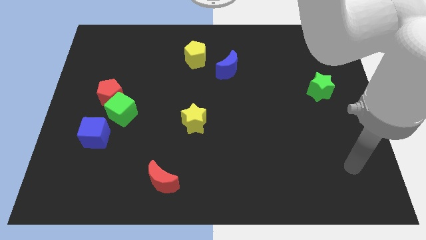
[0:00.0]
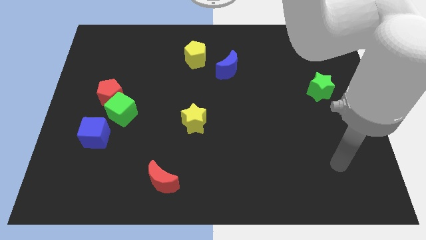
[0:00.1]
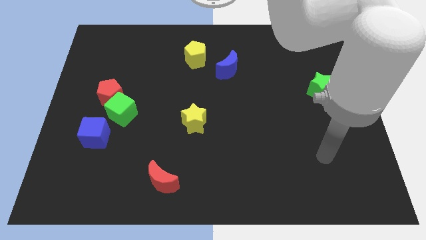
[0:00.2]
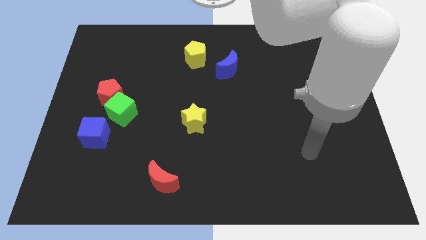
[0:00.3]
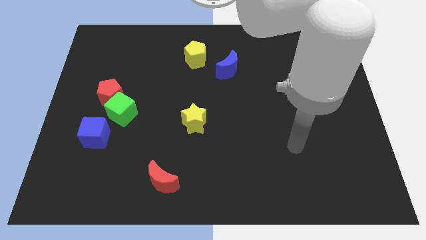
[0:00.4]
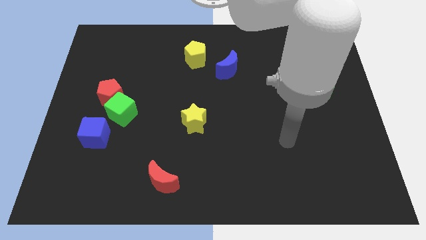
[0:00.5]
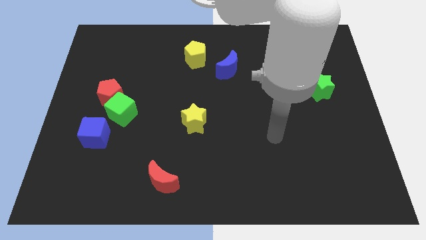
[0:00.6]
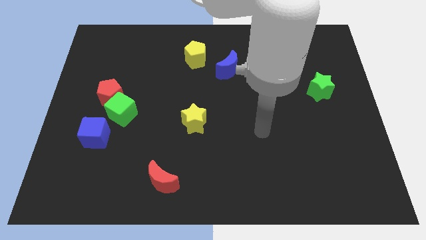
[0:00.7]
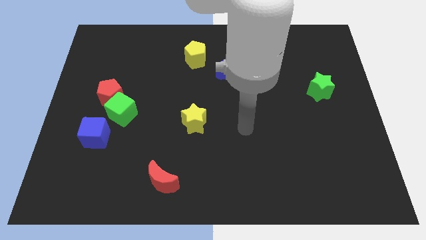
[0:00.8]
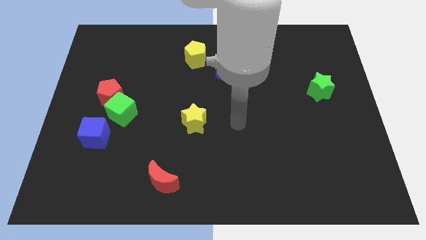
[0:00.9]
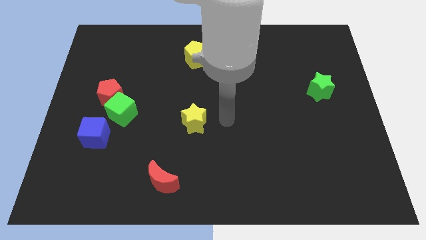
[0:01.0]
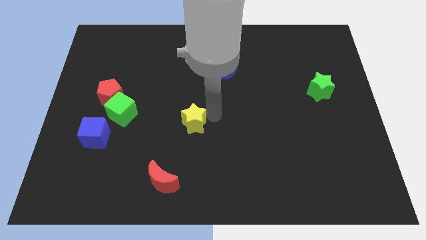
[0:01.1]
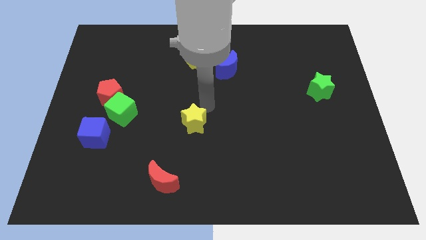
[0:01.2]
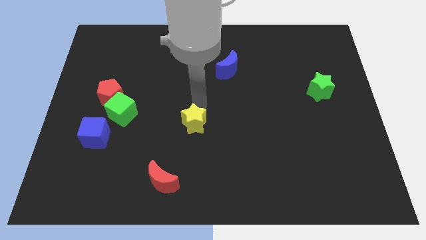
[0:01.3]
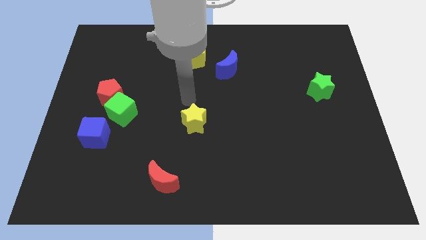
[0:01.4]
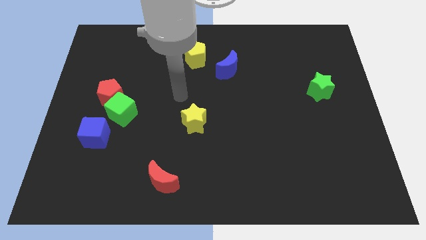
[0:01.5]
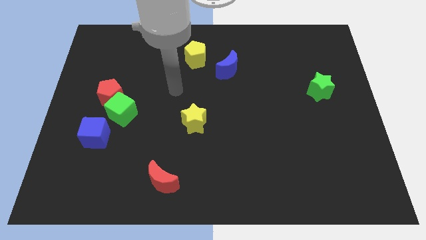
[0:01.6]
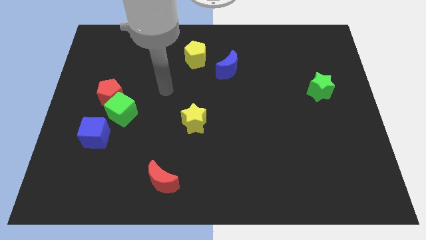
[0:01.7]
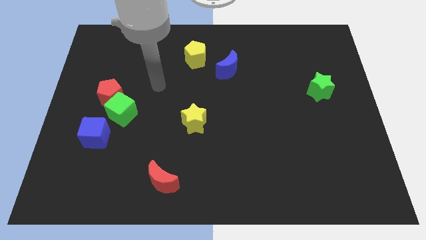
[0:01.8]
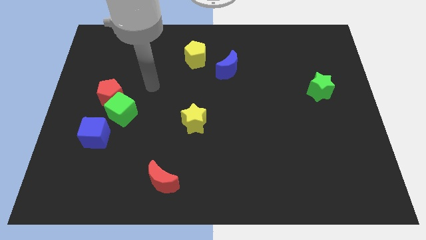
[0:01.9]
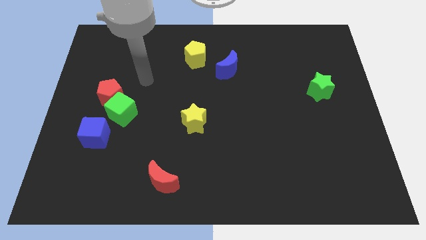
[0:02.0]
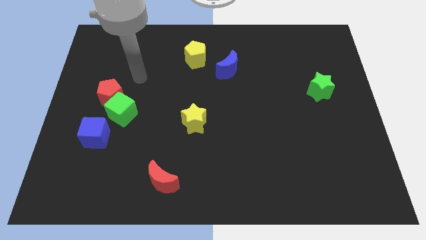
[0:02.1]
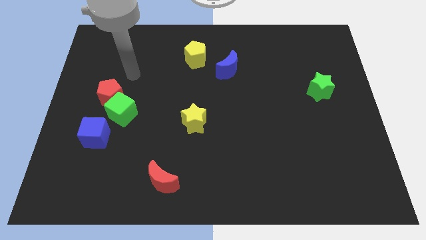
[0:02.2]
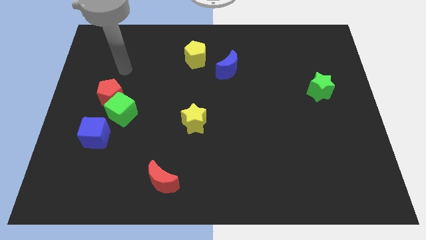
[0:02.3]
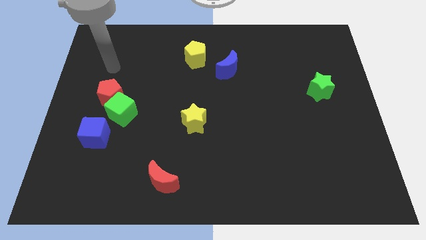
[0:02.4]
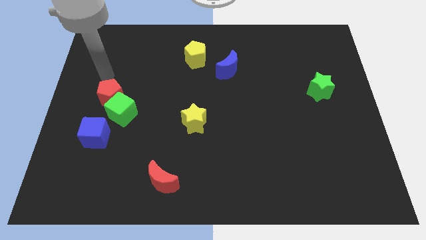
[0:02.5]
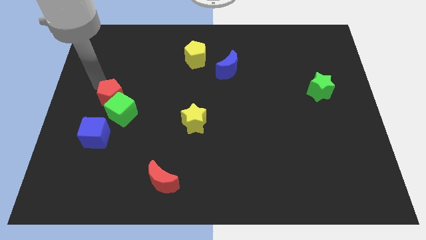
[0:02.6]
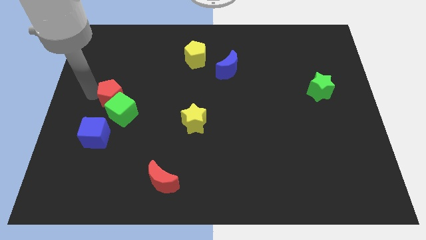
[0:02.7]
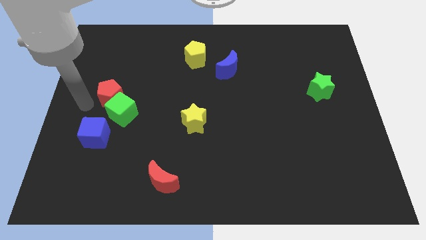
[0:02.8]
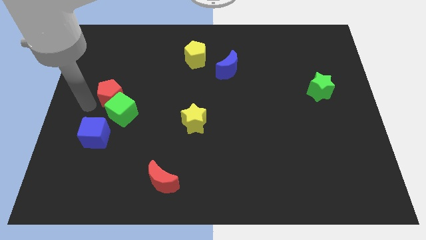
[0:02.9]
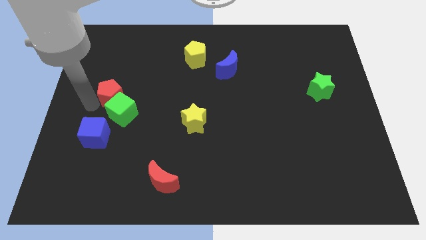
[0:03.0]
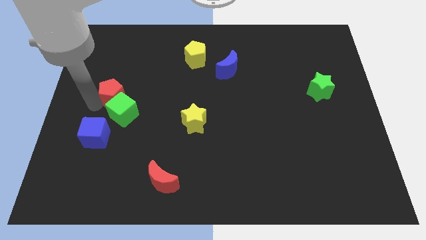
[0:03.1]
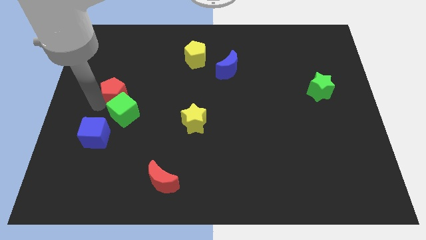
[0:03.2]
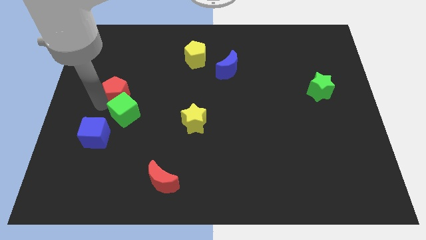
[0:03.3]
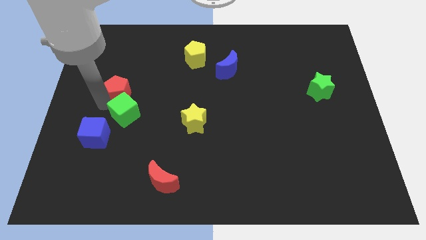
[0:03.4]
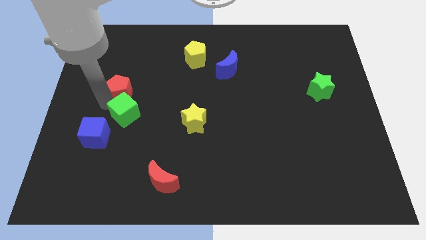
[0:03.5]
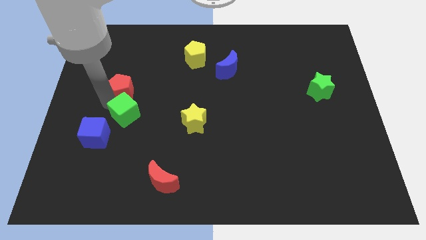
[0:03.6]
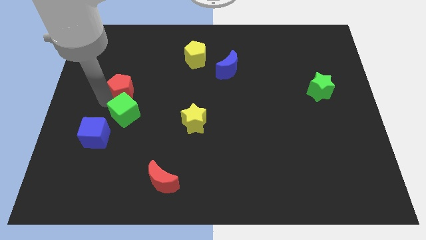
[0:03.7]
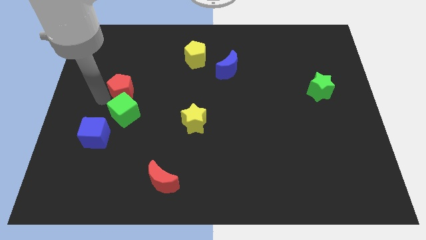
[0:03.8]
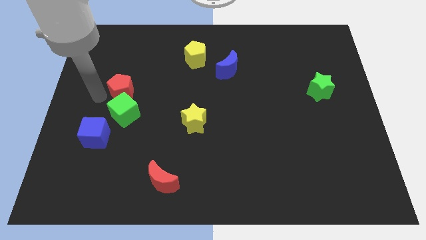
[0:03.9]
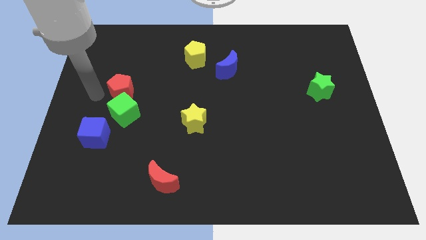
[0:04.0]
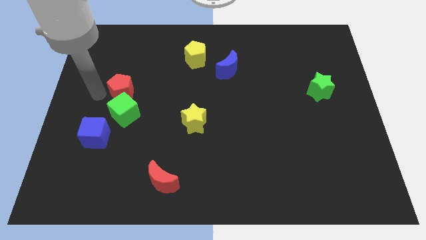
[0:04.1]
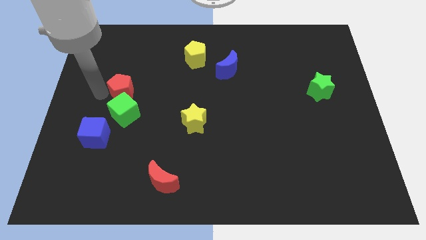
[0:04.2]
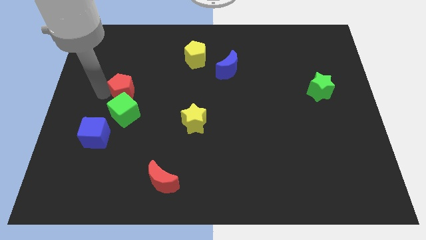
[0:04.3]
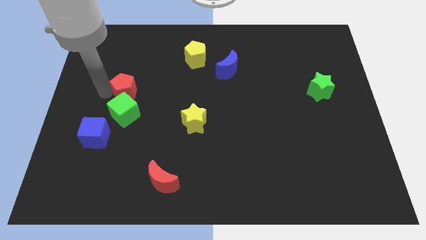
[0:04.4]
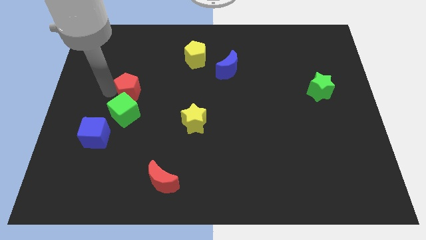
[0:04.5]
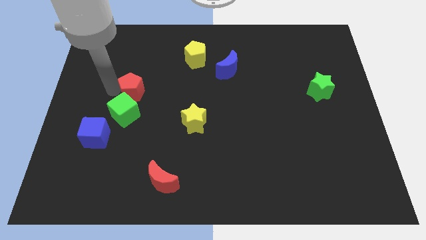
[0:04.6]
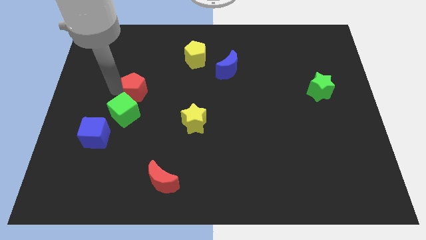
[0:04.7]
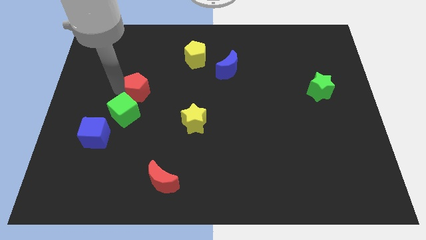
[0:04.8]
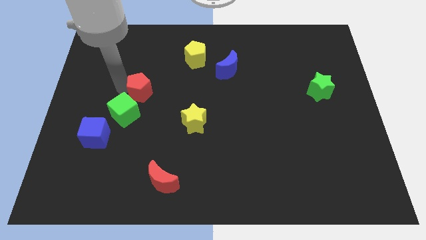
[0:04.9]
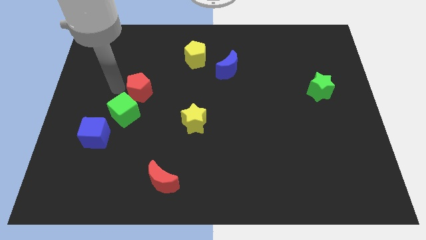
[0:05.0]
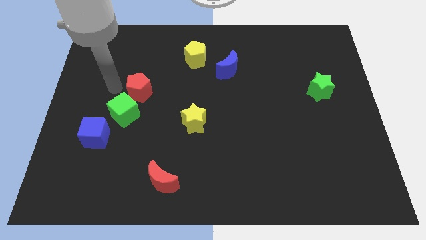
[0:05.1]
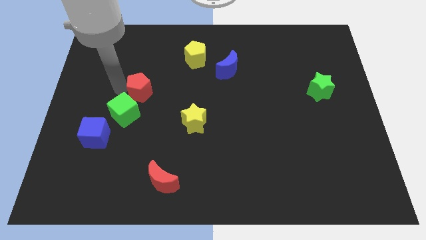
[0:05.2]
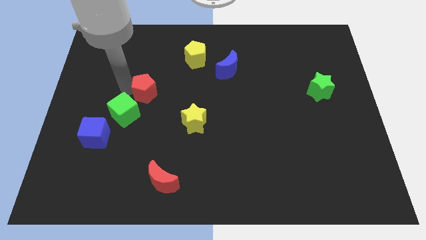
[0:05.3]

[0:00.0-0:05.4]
push the red pentagon to the right a little bit

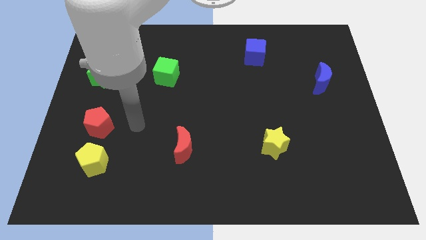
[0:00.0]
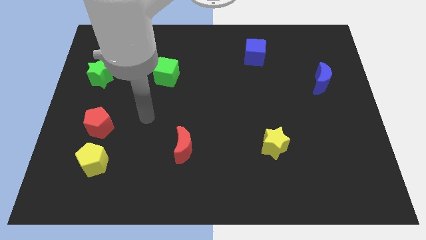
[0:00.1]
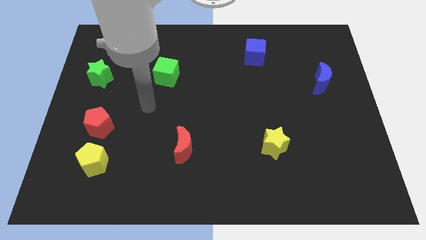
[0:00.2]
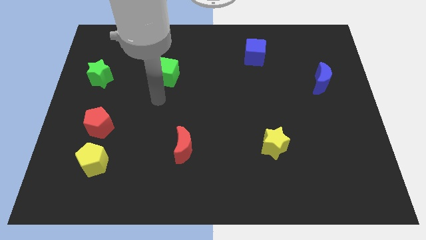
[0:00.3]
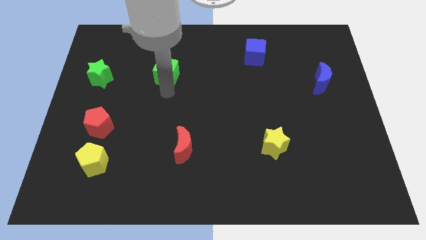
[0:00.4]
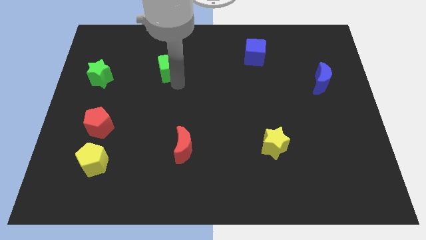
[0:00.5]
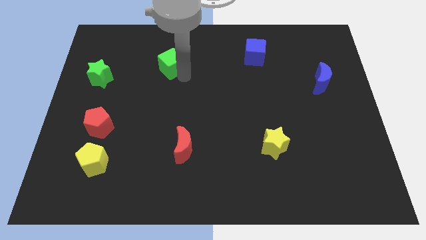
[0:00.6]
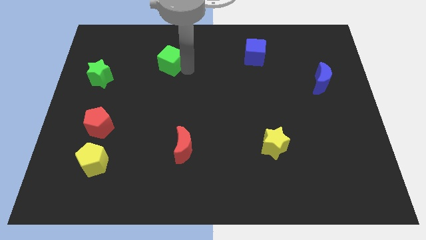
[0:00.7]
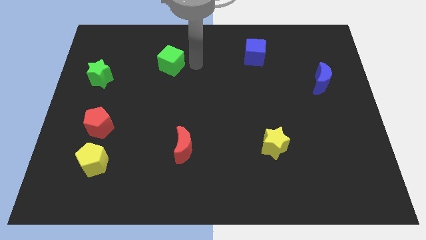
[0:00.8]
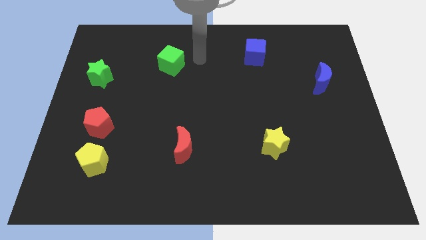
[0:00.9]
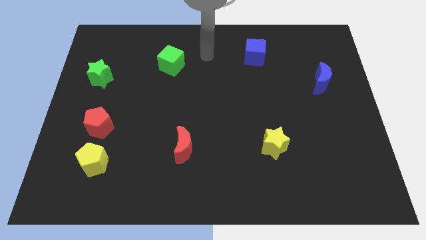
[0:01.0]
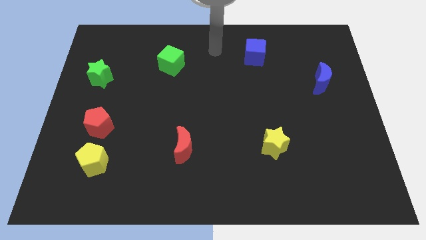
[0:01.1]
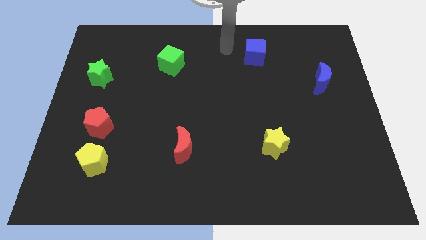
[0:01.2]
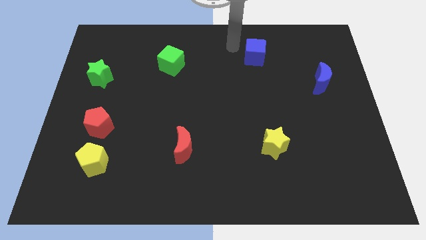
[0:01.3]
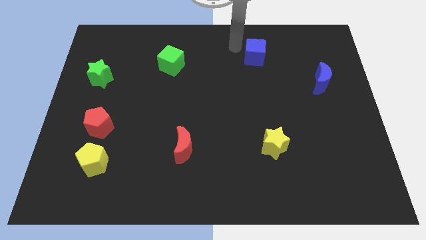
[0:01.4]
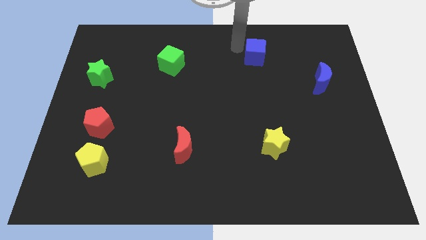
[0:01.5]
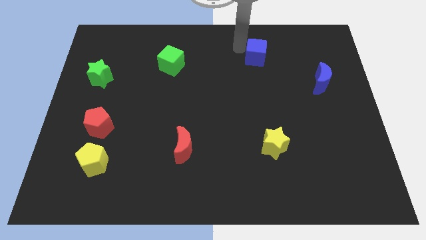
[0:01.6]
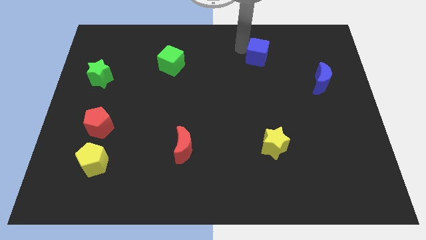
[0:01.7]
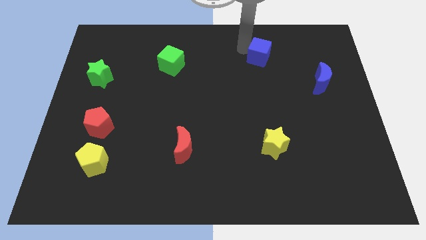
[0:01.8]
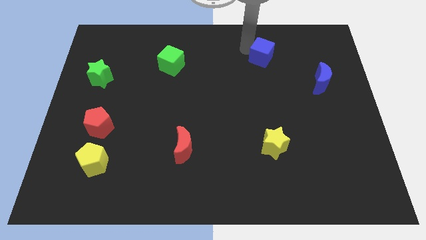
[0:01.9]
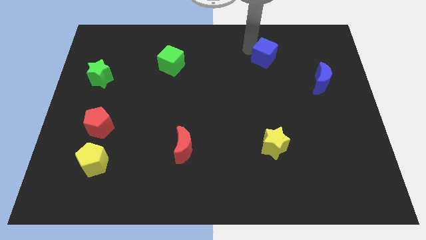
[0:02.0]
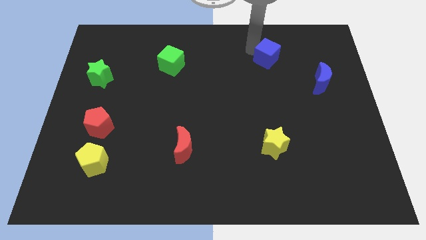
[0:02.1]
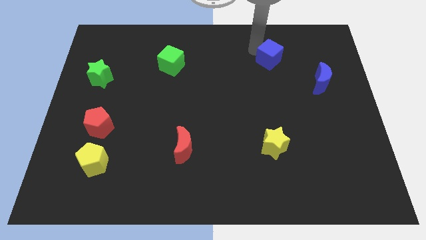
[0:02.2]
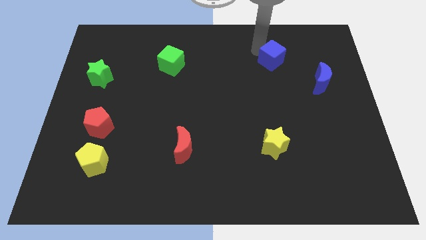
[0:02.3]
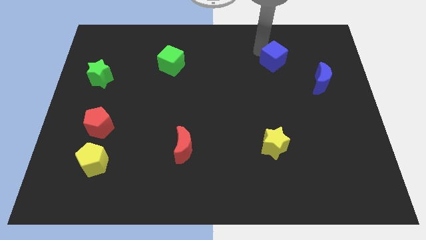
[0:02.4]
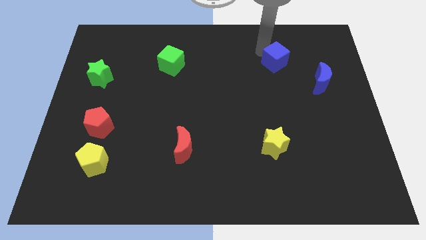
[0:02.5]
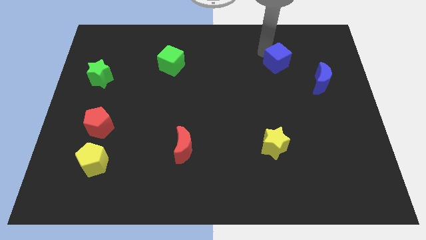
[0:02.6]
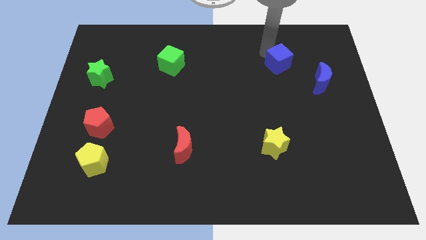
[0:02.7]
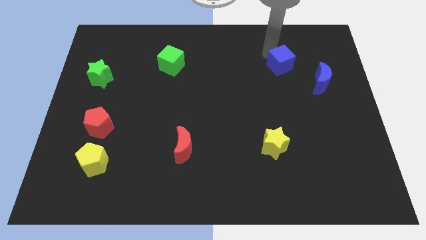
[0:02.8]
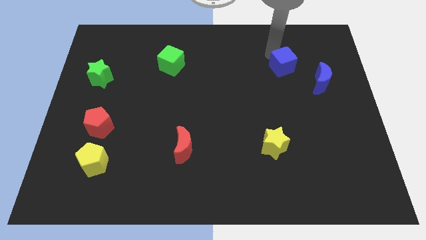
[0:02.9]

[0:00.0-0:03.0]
slide the blue cube diagonally downwards and right somewhat
